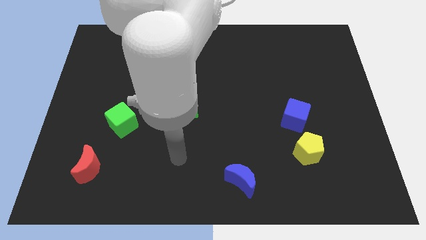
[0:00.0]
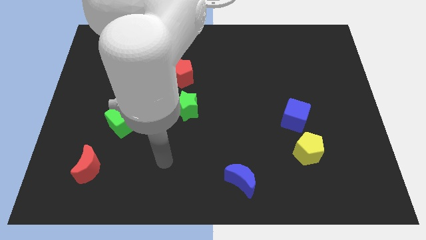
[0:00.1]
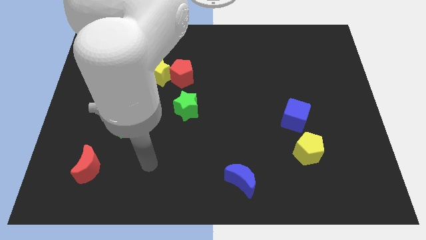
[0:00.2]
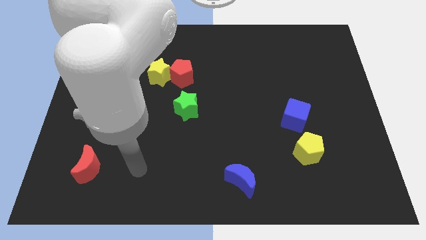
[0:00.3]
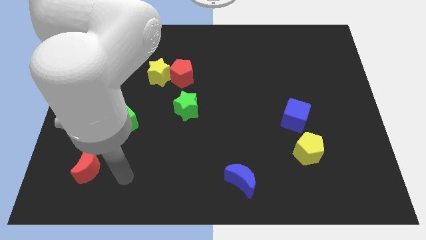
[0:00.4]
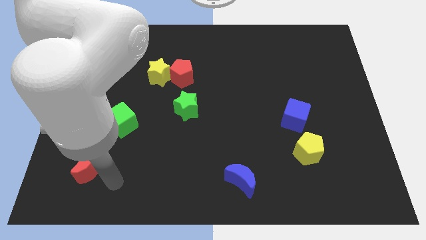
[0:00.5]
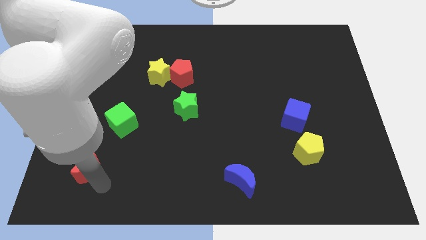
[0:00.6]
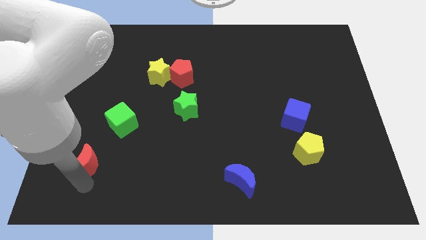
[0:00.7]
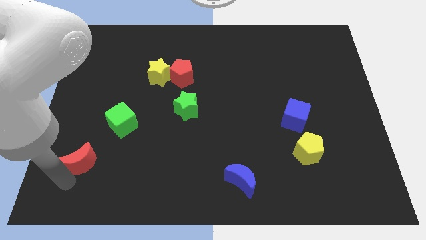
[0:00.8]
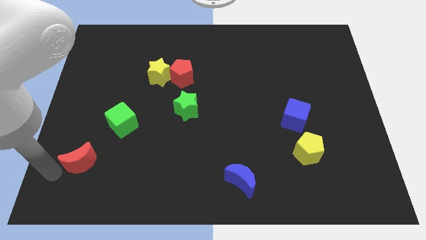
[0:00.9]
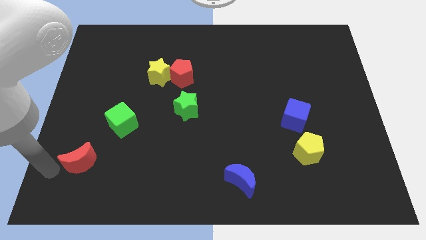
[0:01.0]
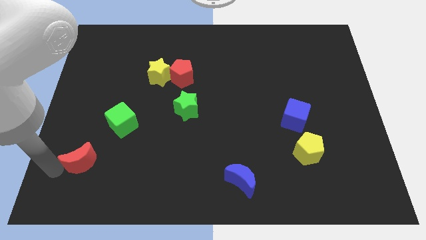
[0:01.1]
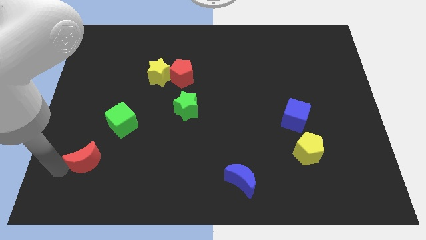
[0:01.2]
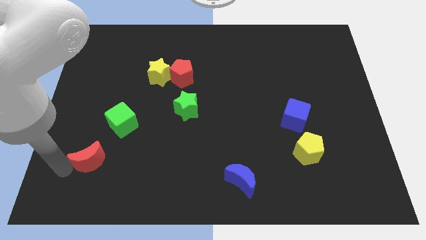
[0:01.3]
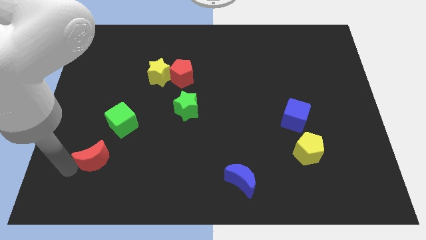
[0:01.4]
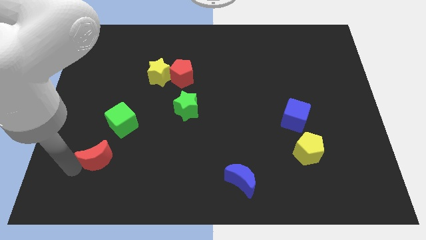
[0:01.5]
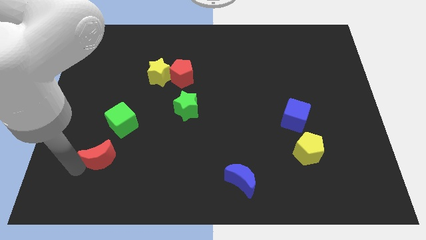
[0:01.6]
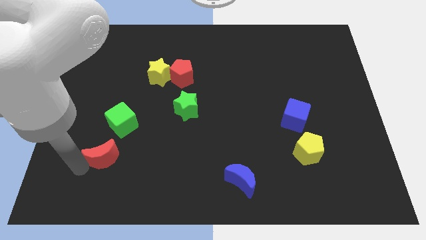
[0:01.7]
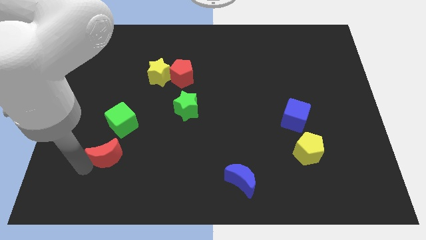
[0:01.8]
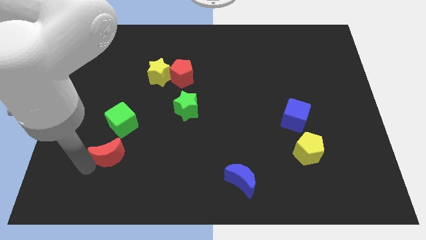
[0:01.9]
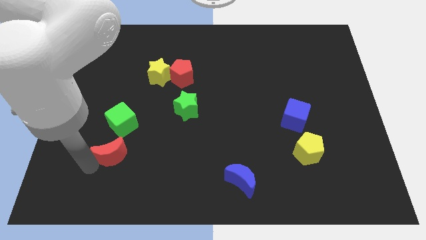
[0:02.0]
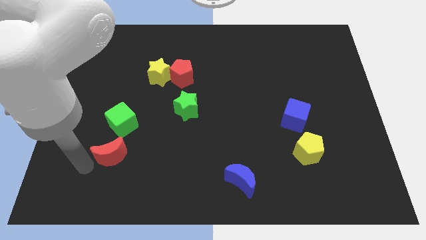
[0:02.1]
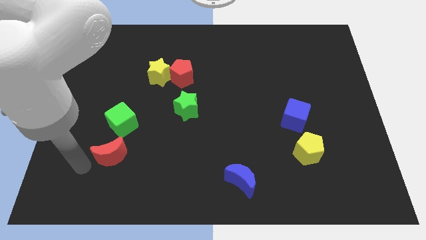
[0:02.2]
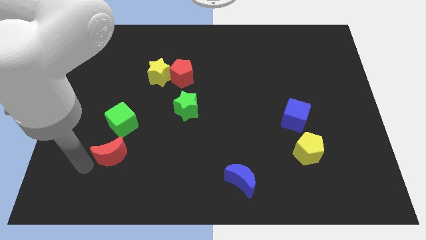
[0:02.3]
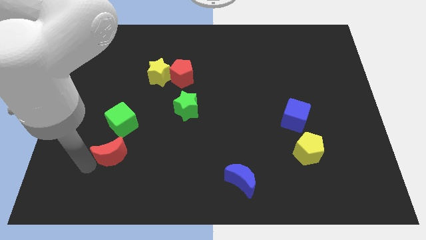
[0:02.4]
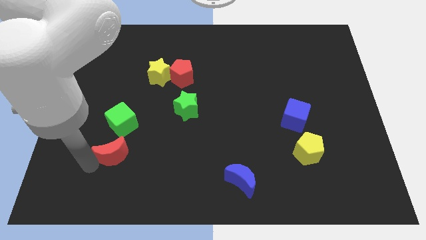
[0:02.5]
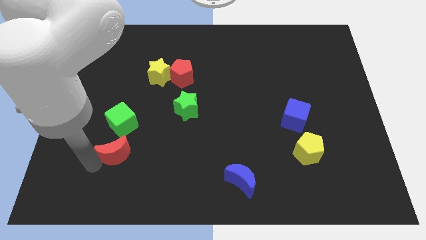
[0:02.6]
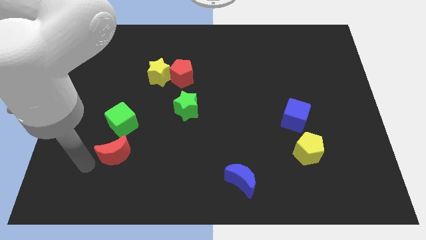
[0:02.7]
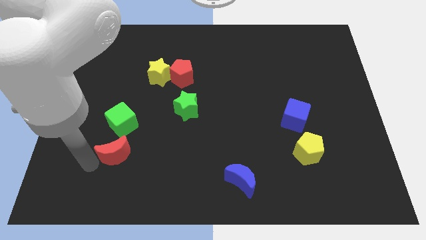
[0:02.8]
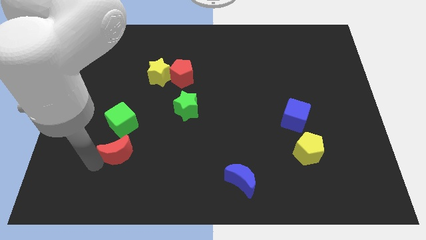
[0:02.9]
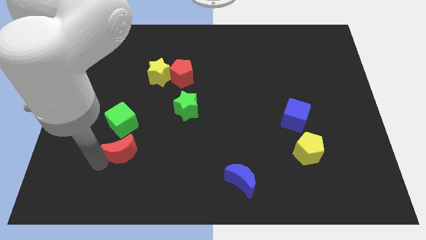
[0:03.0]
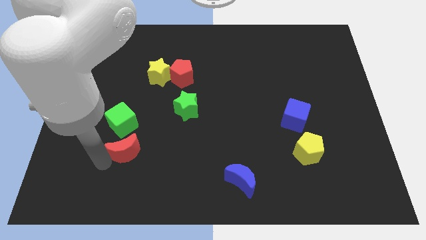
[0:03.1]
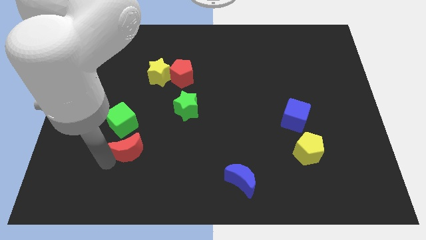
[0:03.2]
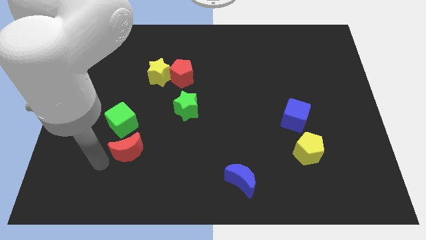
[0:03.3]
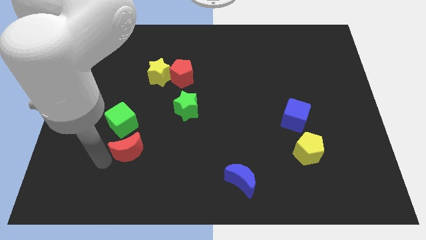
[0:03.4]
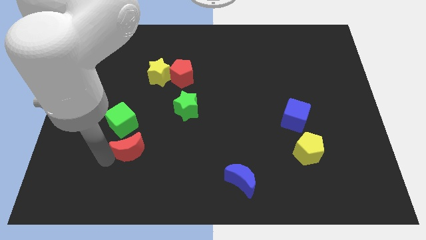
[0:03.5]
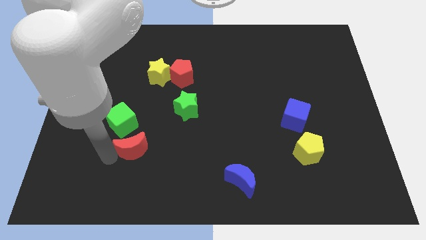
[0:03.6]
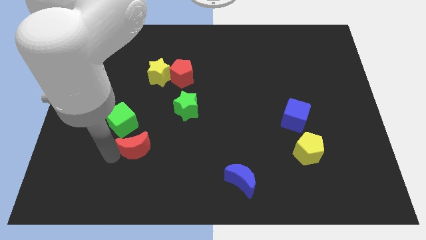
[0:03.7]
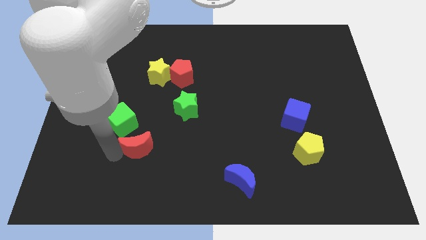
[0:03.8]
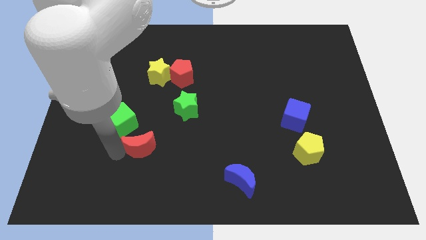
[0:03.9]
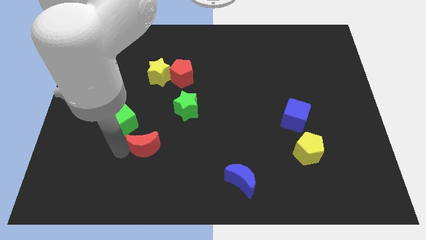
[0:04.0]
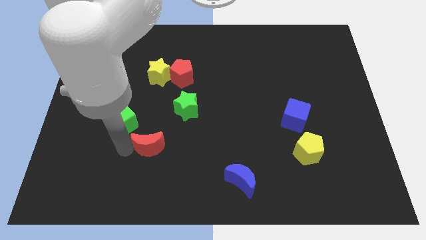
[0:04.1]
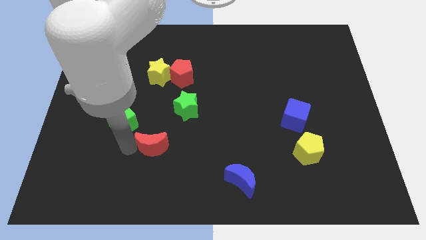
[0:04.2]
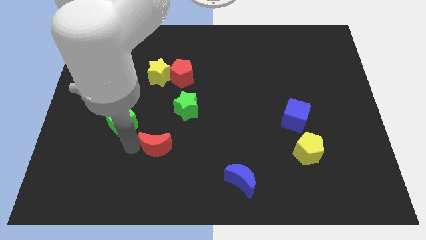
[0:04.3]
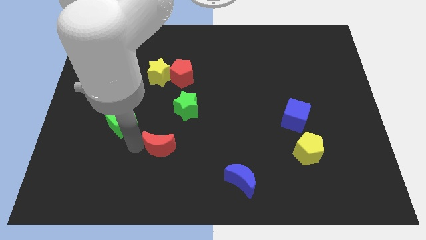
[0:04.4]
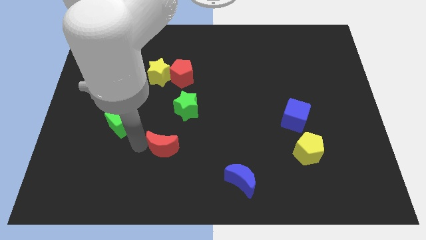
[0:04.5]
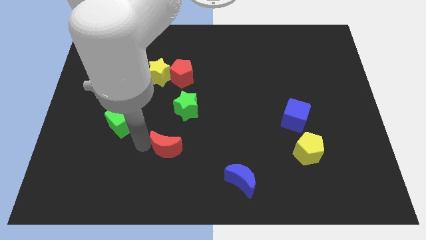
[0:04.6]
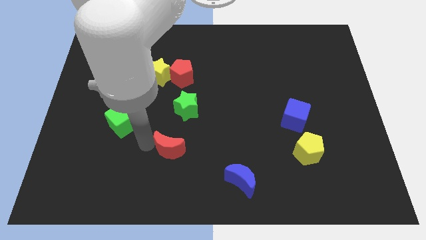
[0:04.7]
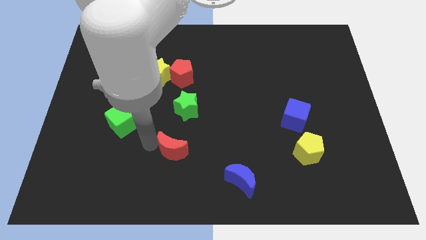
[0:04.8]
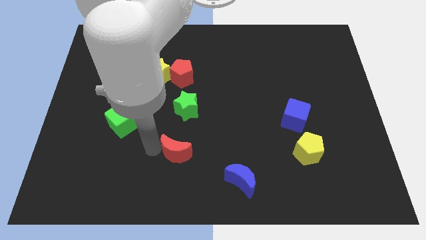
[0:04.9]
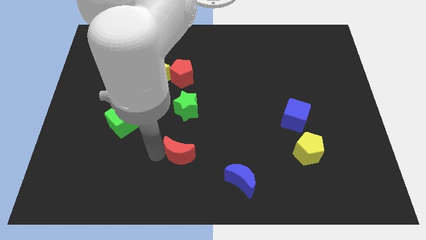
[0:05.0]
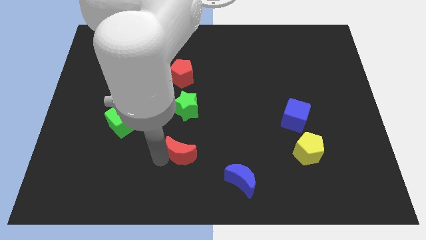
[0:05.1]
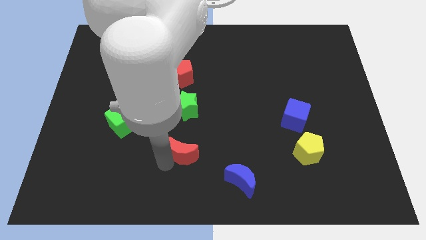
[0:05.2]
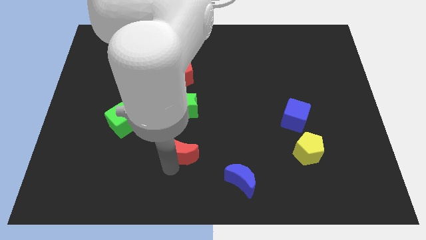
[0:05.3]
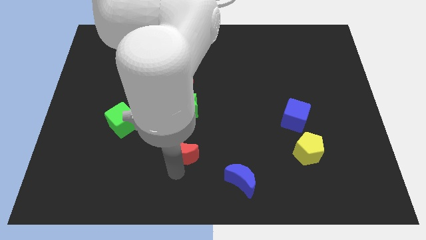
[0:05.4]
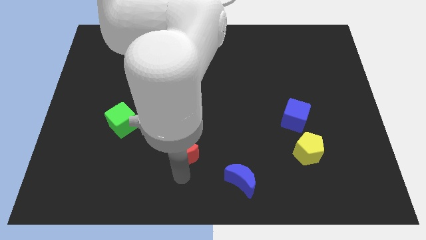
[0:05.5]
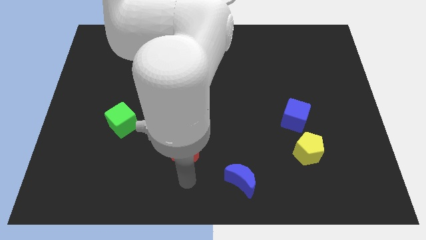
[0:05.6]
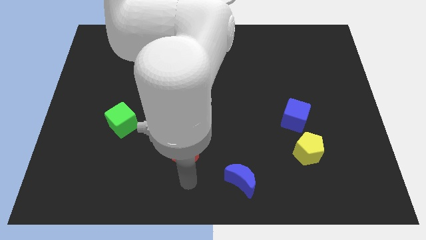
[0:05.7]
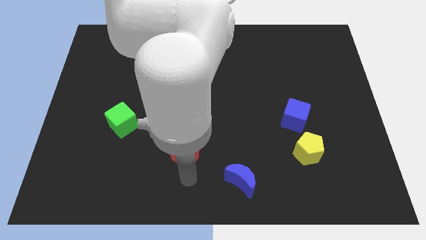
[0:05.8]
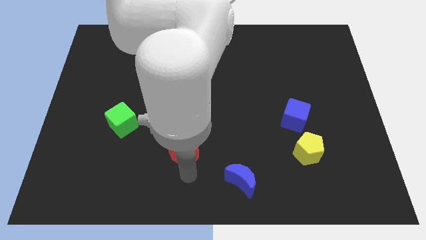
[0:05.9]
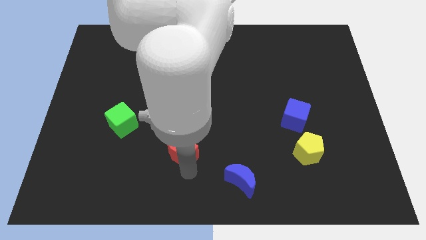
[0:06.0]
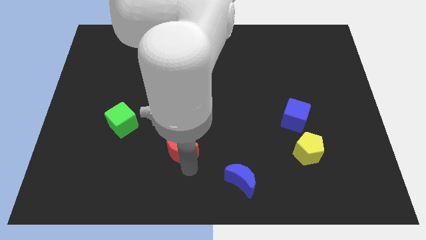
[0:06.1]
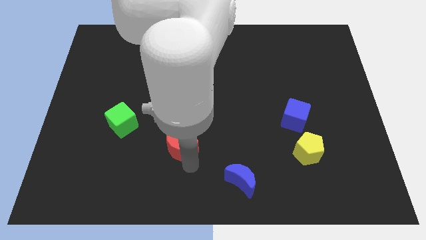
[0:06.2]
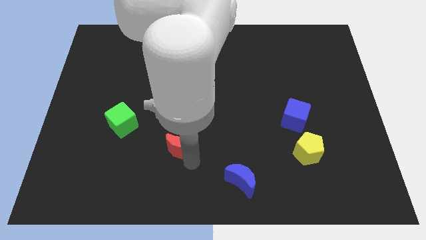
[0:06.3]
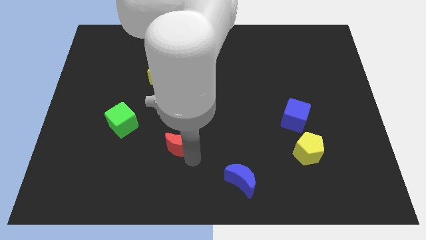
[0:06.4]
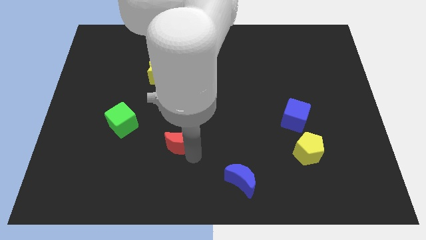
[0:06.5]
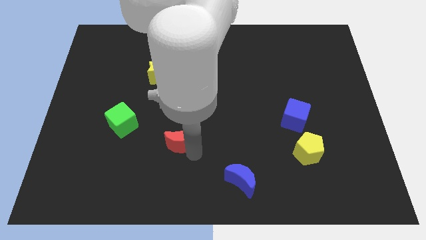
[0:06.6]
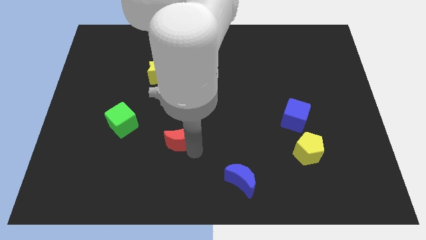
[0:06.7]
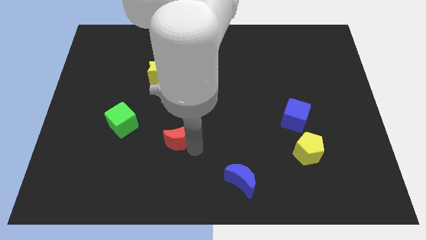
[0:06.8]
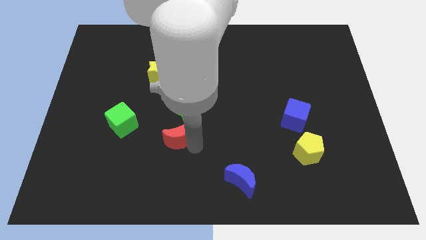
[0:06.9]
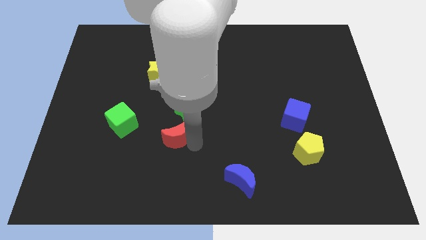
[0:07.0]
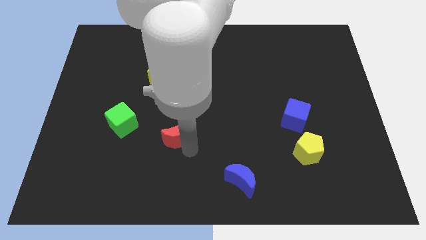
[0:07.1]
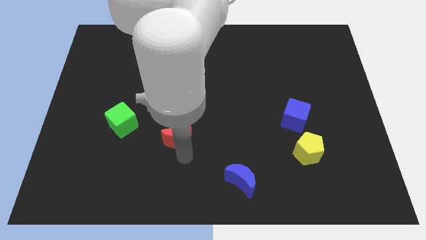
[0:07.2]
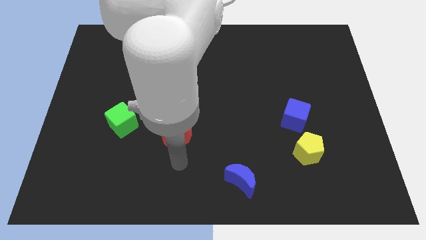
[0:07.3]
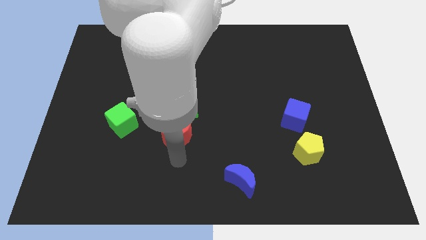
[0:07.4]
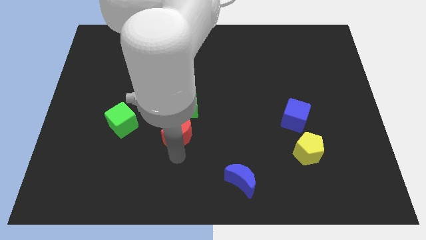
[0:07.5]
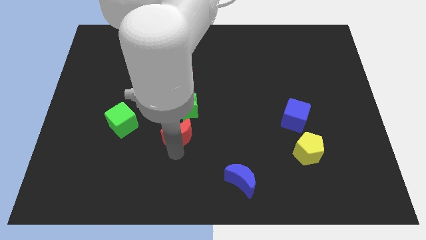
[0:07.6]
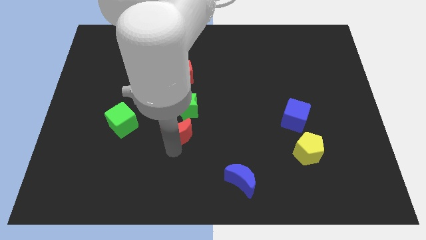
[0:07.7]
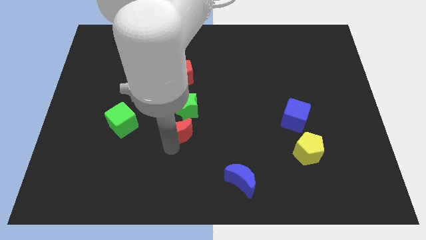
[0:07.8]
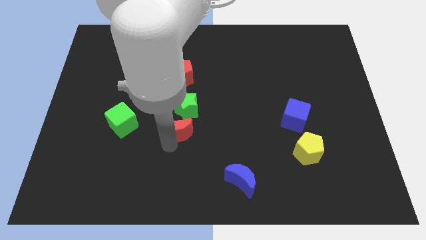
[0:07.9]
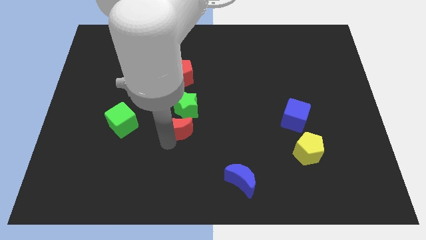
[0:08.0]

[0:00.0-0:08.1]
move the red moon below the red pentagon
